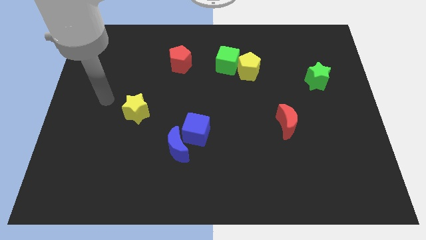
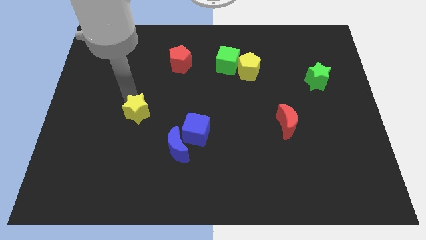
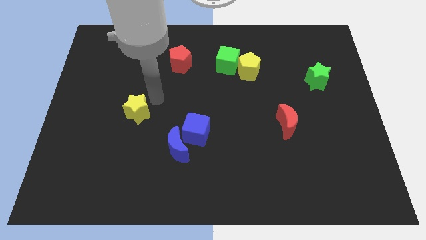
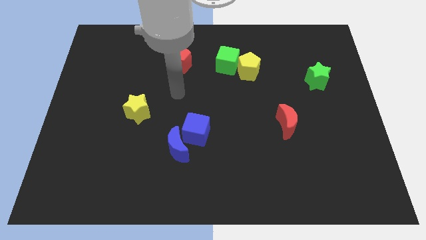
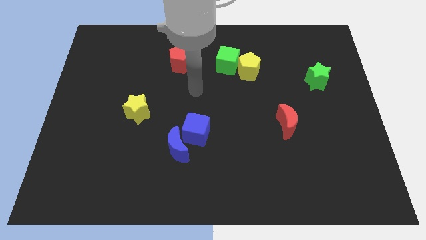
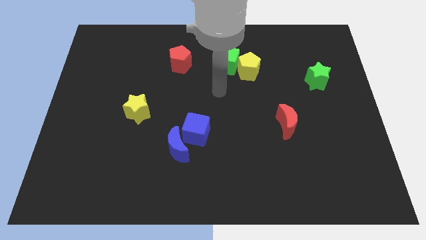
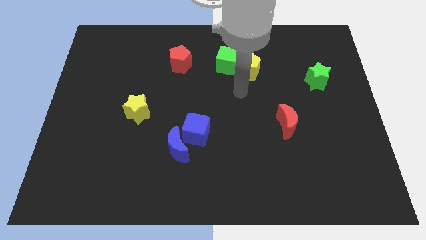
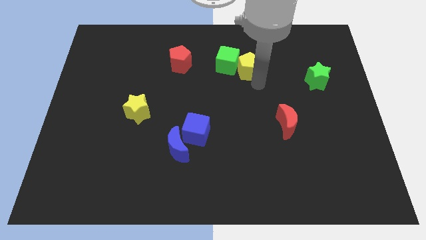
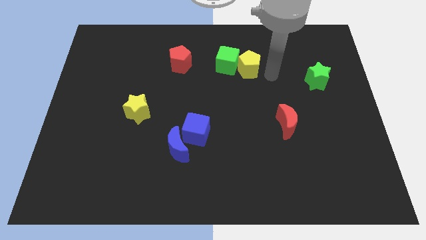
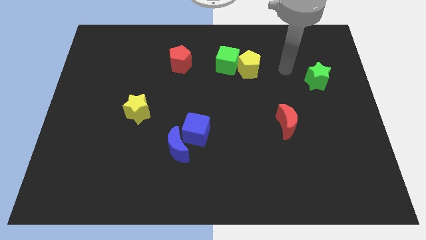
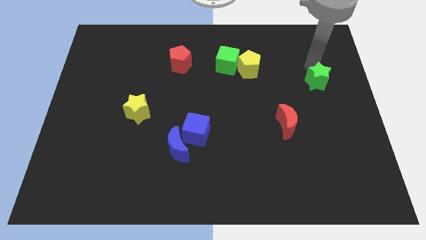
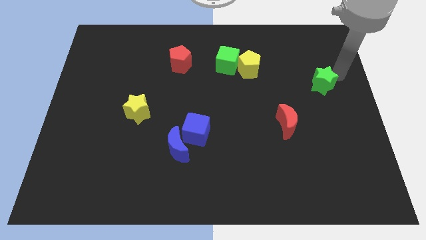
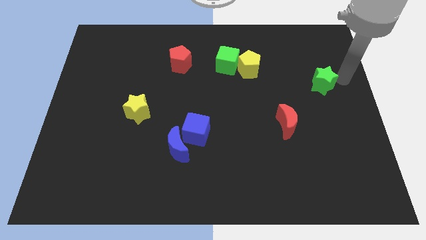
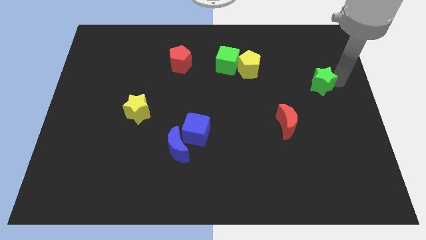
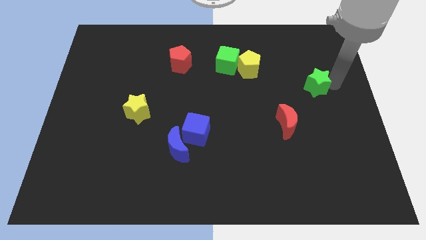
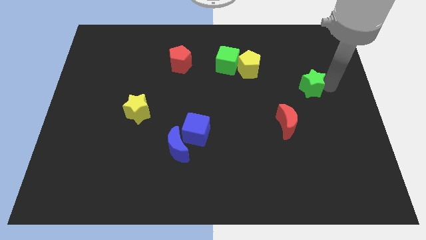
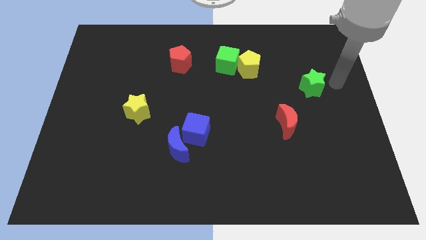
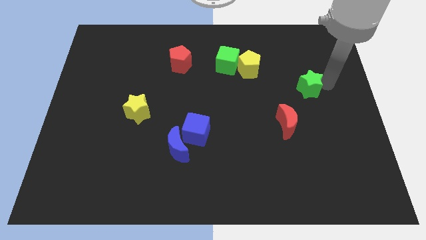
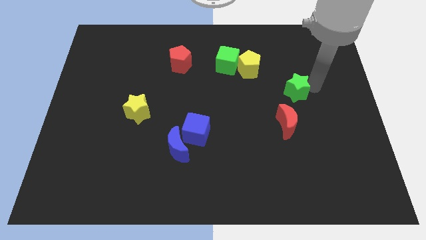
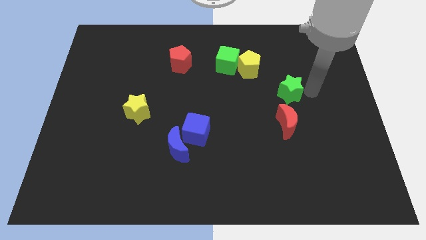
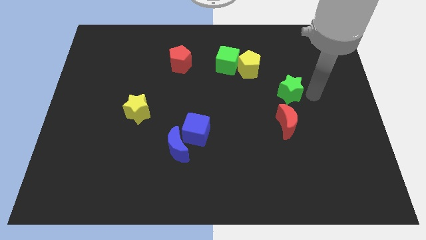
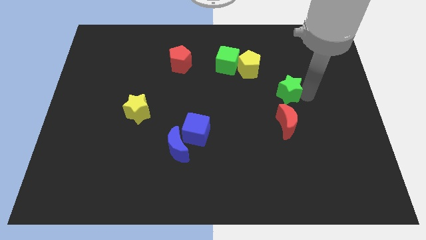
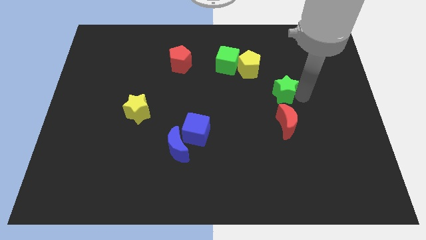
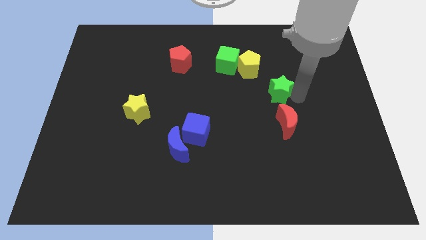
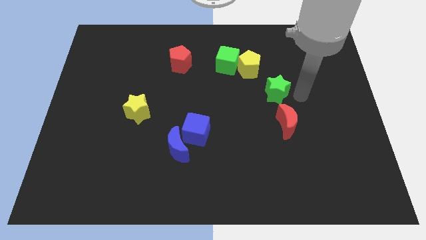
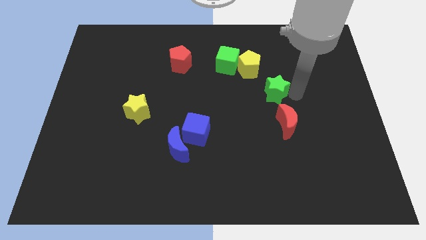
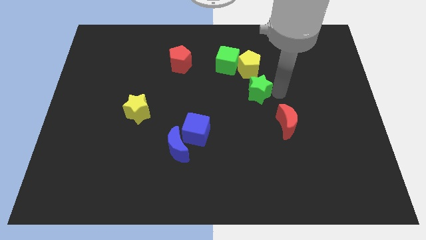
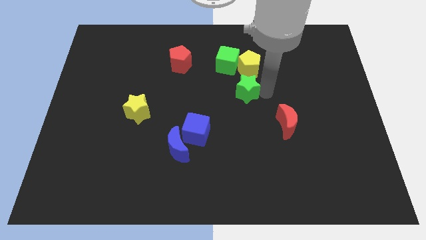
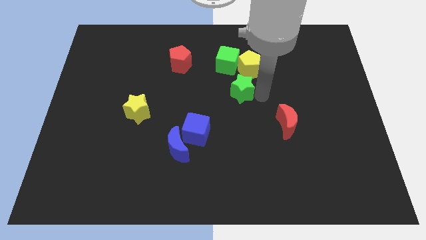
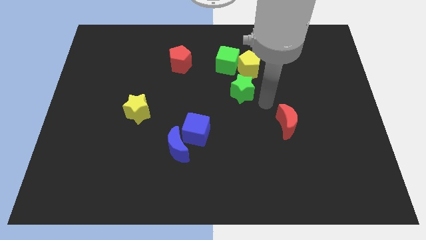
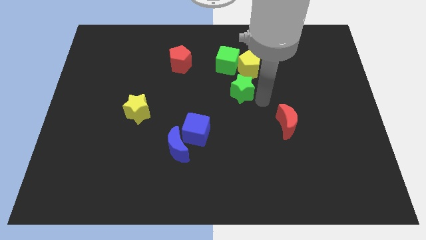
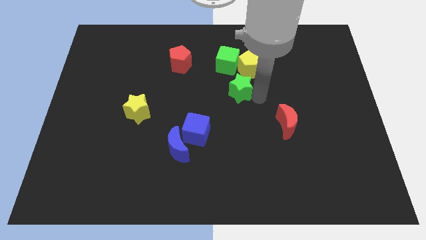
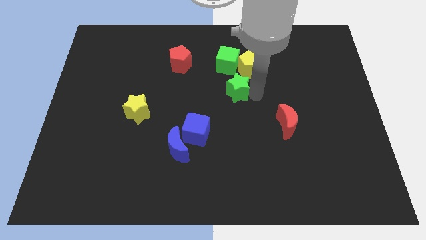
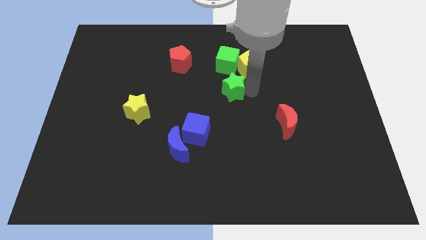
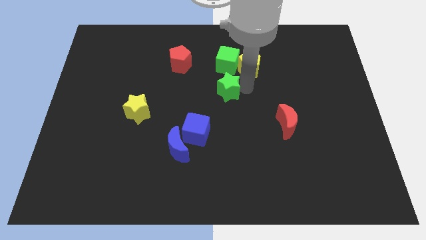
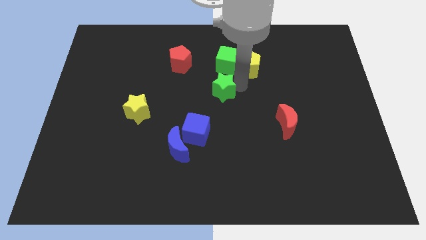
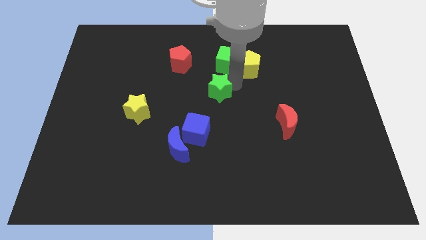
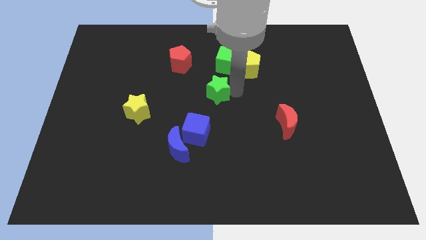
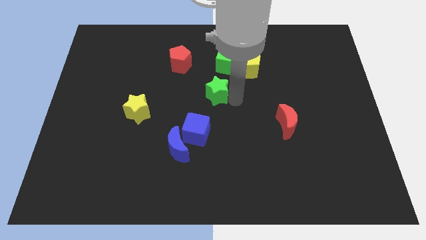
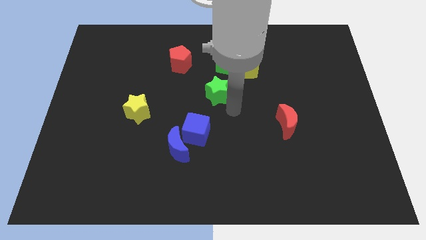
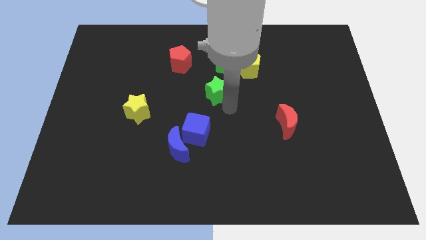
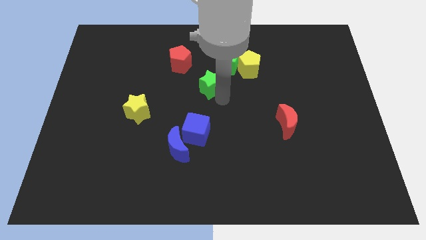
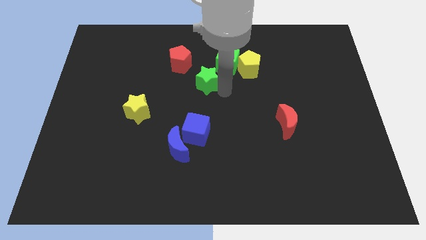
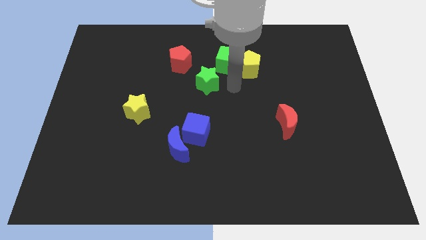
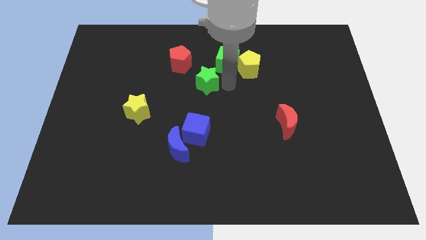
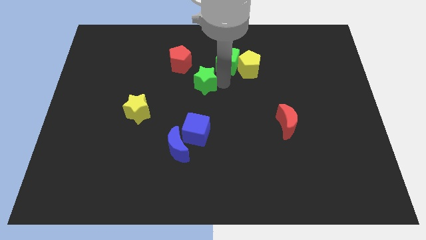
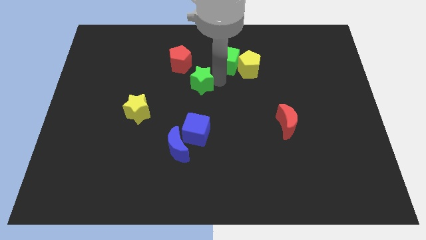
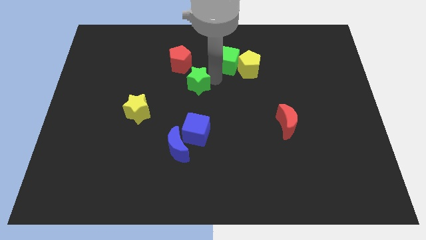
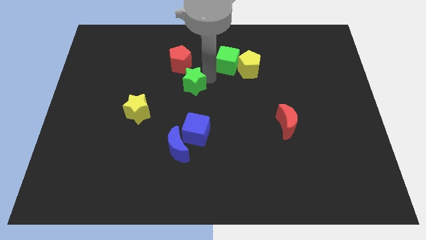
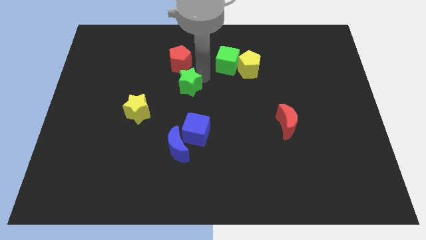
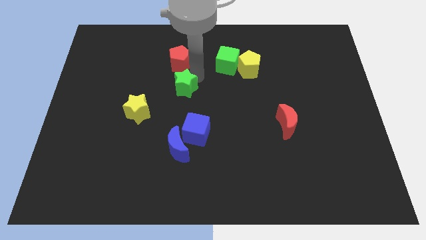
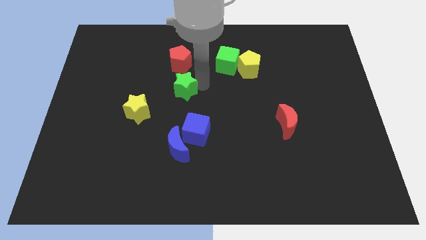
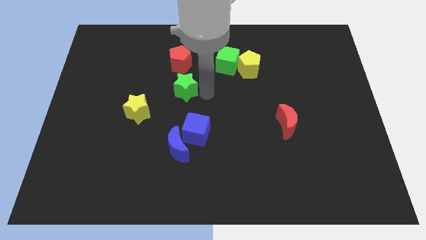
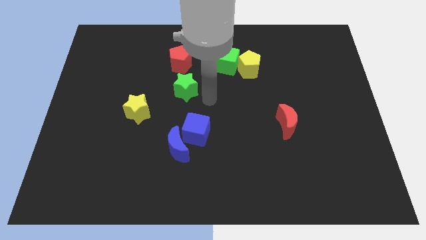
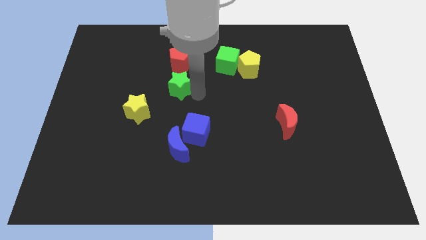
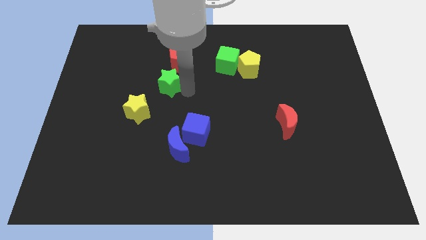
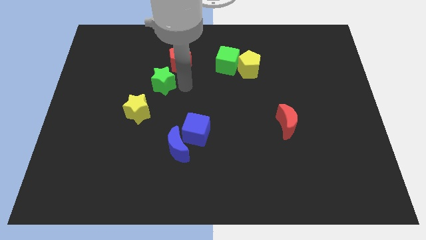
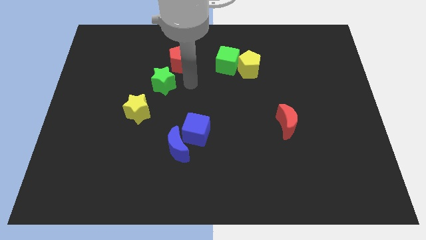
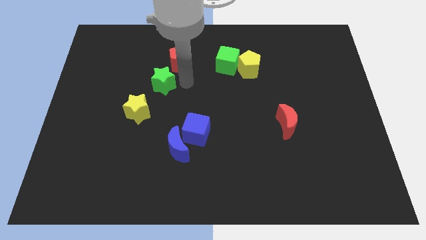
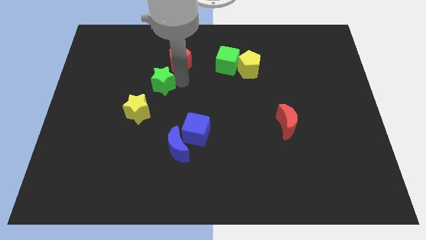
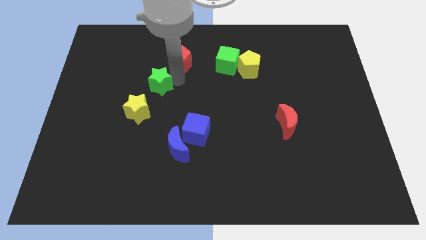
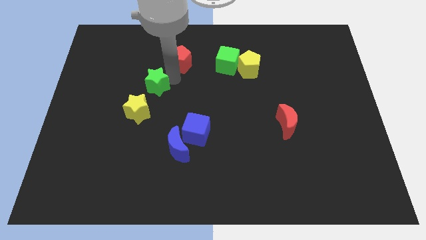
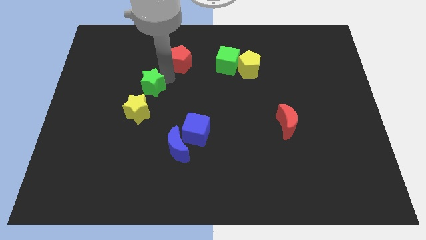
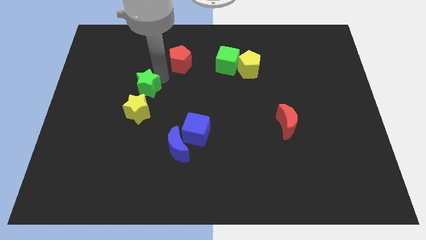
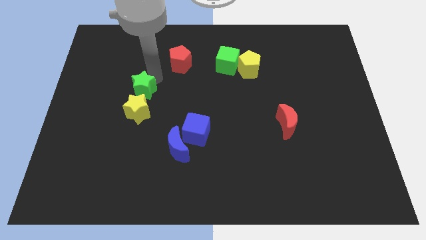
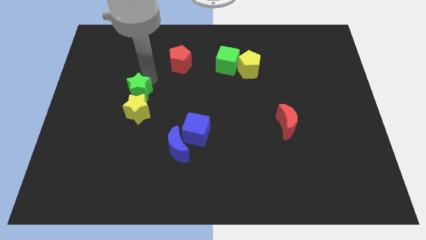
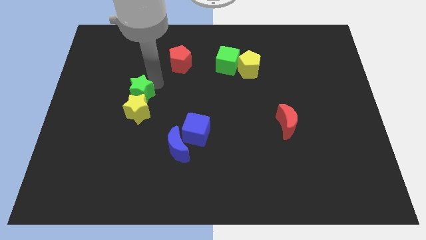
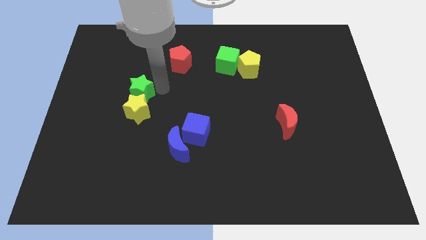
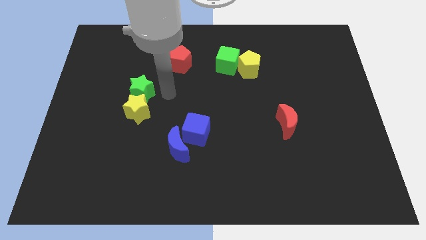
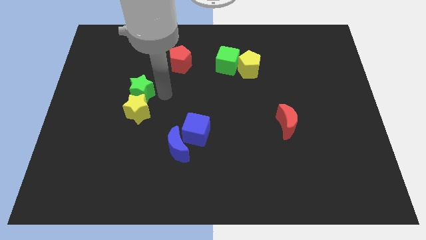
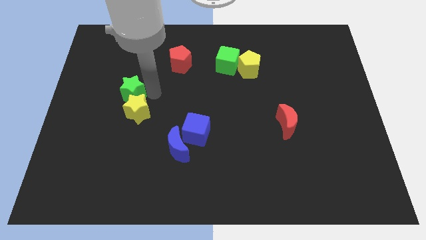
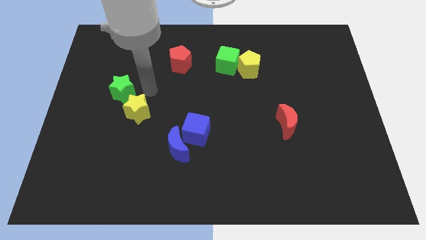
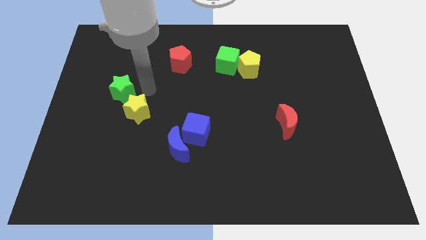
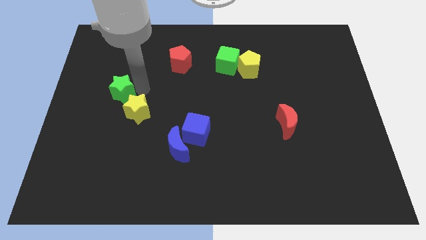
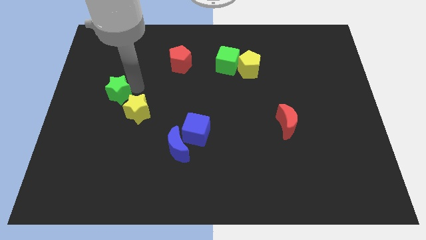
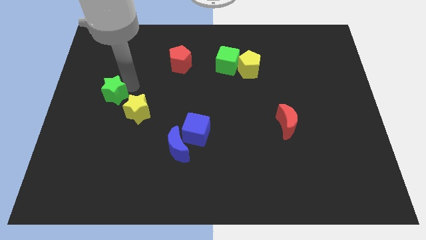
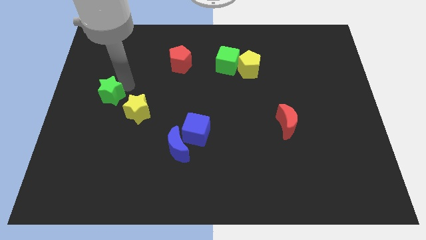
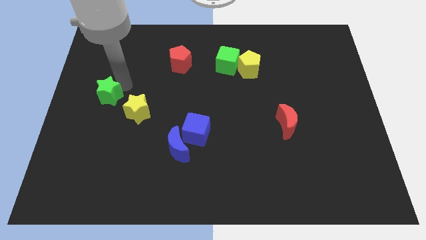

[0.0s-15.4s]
push the green star to the left side of the board
